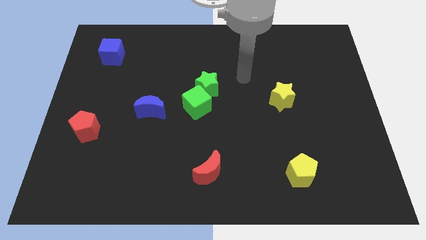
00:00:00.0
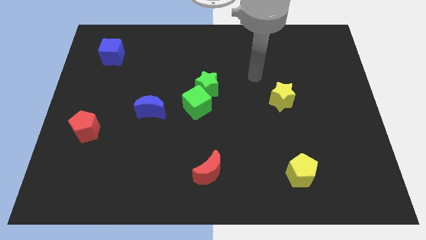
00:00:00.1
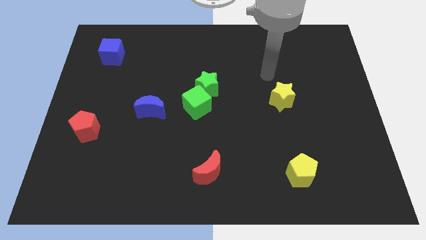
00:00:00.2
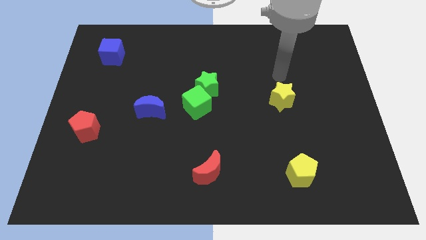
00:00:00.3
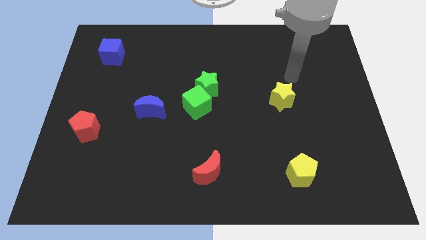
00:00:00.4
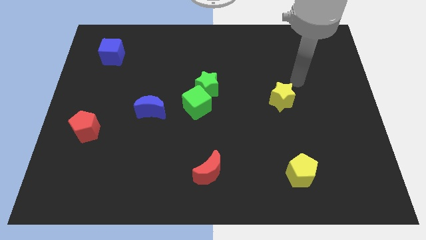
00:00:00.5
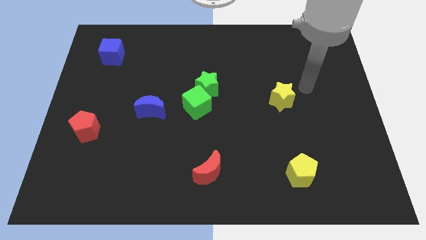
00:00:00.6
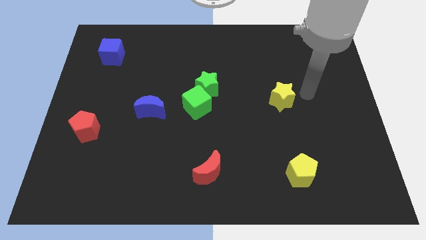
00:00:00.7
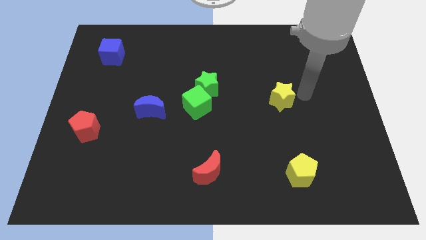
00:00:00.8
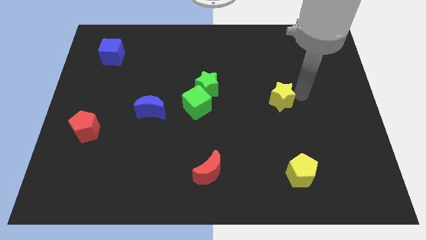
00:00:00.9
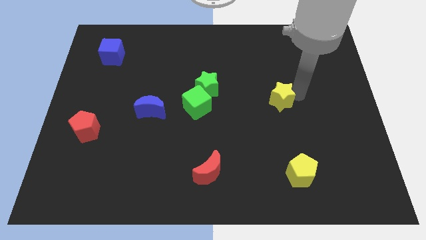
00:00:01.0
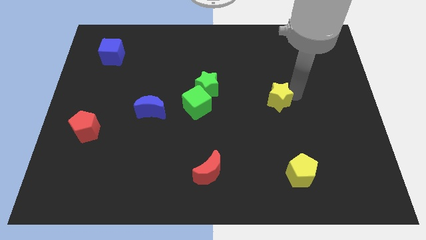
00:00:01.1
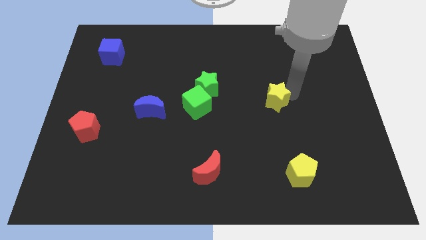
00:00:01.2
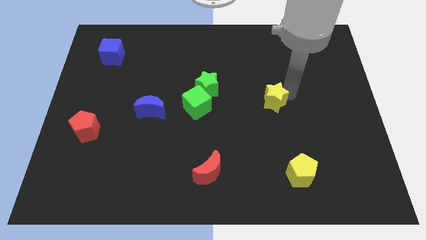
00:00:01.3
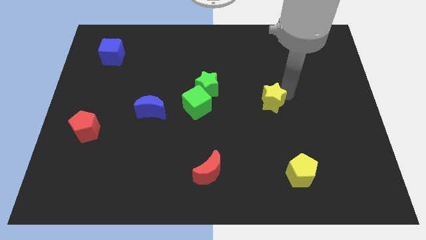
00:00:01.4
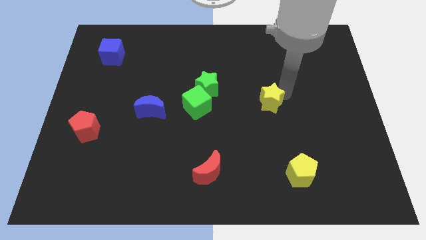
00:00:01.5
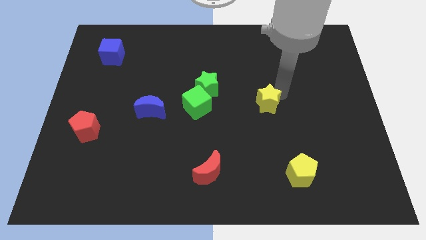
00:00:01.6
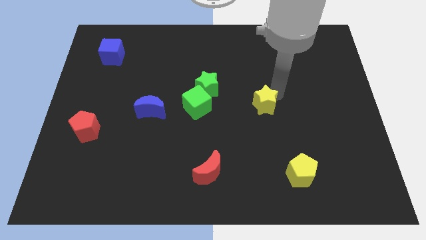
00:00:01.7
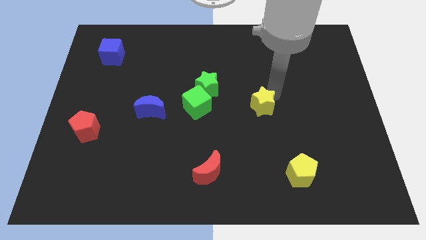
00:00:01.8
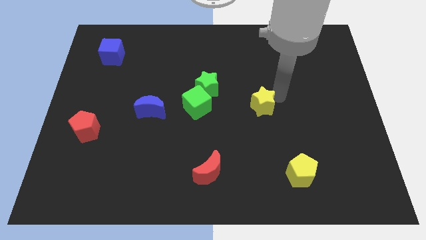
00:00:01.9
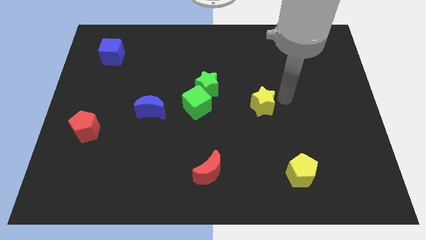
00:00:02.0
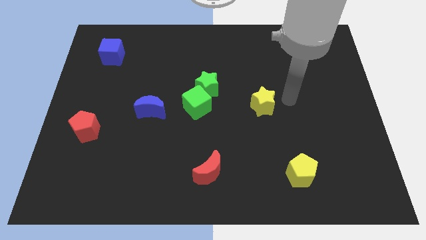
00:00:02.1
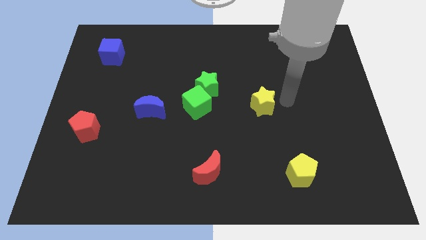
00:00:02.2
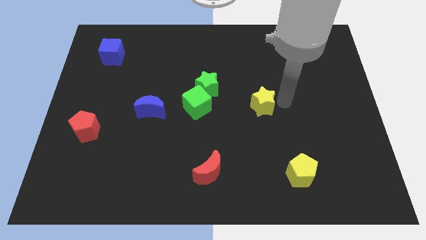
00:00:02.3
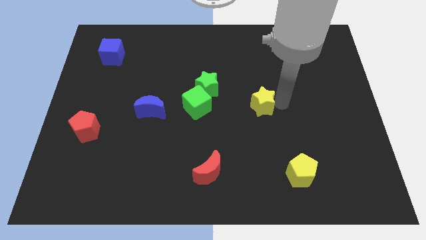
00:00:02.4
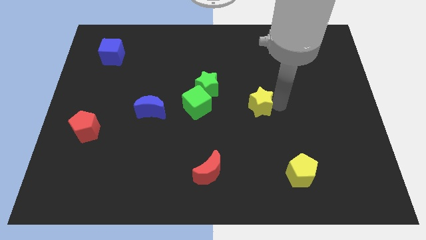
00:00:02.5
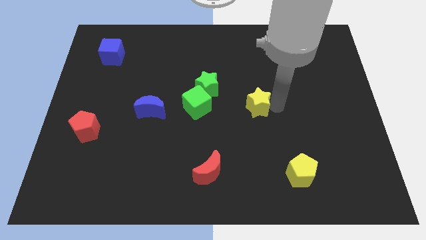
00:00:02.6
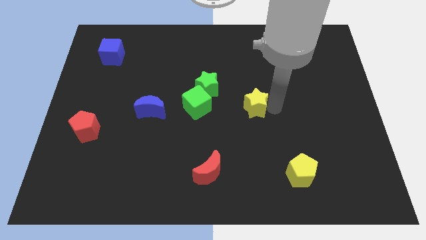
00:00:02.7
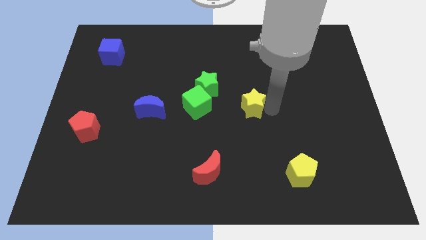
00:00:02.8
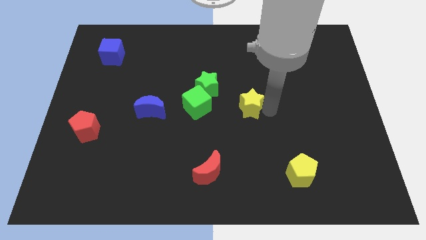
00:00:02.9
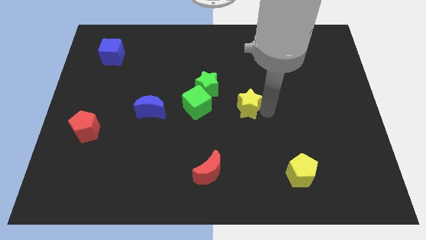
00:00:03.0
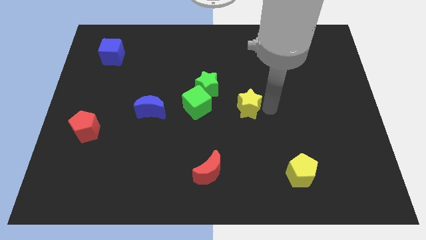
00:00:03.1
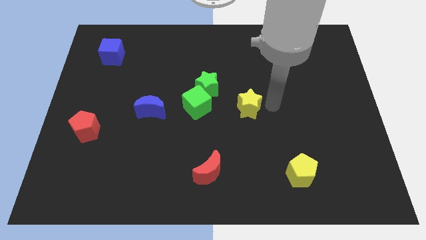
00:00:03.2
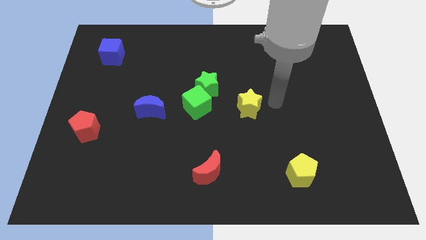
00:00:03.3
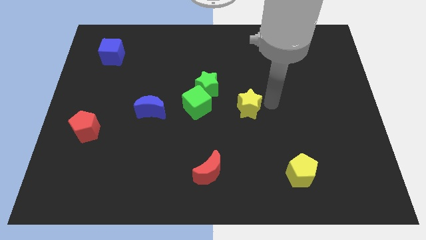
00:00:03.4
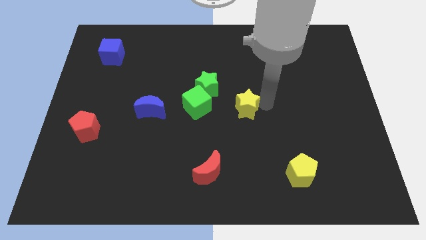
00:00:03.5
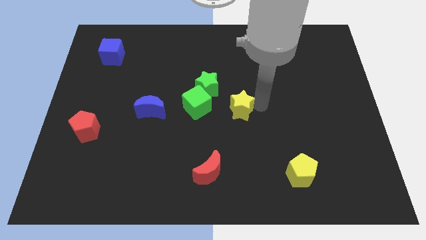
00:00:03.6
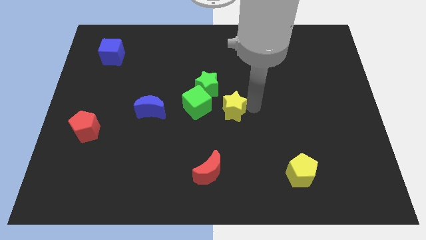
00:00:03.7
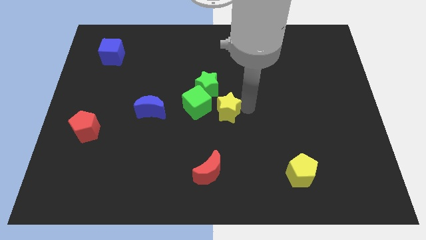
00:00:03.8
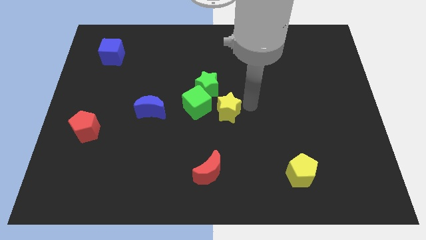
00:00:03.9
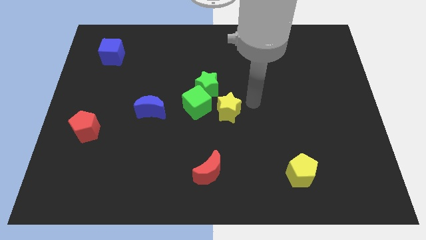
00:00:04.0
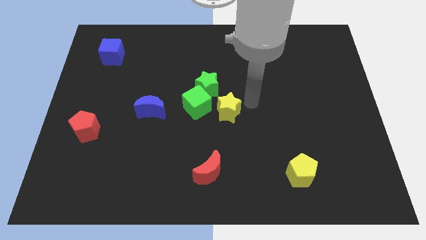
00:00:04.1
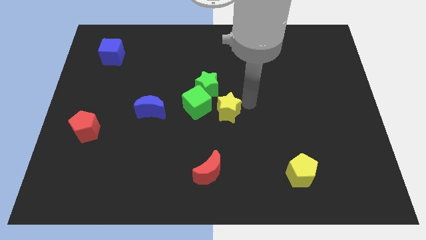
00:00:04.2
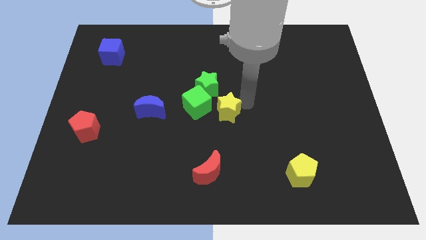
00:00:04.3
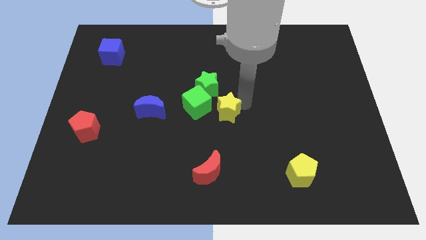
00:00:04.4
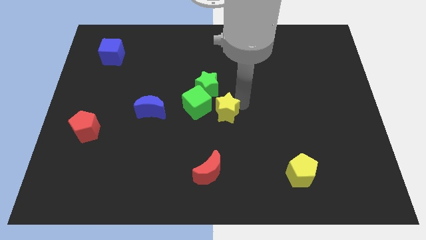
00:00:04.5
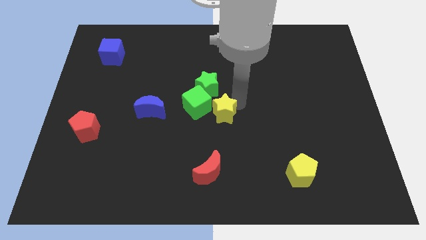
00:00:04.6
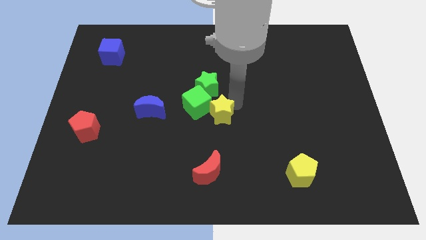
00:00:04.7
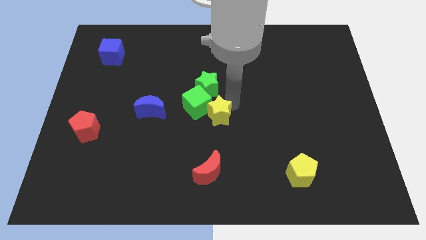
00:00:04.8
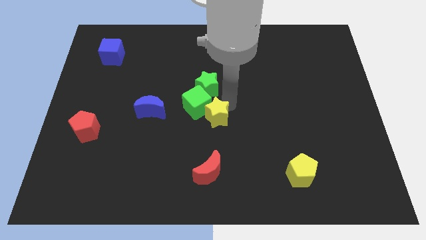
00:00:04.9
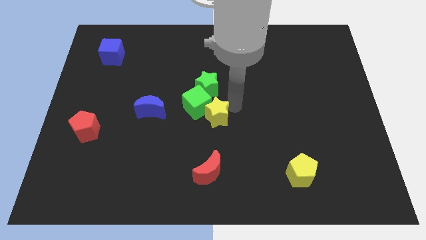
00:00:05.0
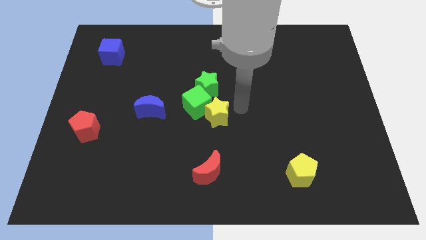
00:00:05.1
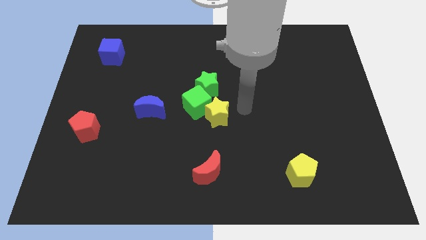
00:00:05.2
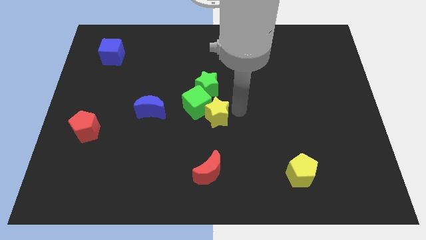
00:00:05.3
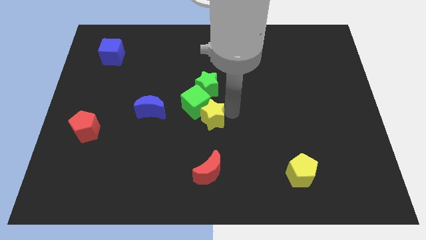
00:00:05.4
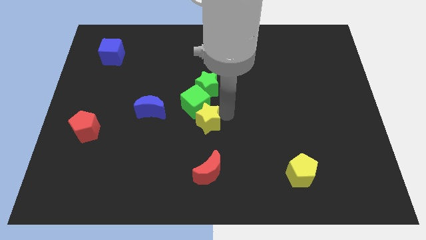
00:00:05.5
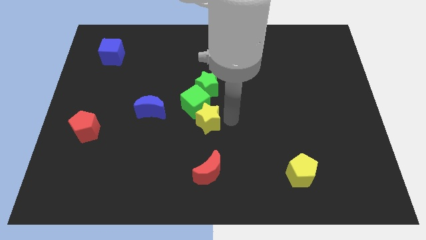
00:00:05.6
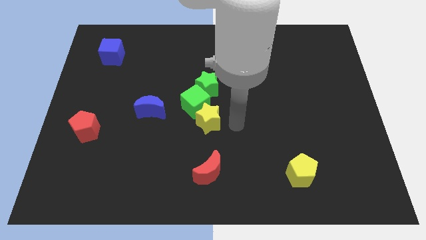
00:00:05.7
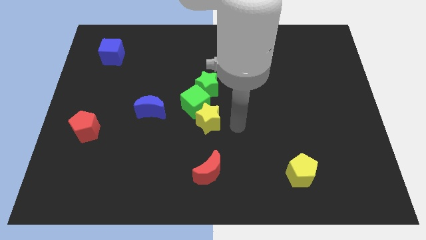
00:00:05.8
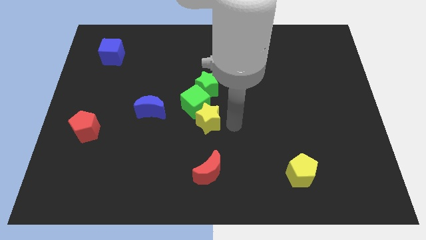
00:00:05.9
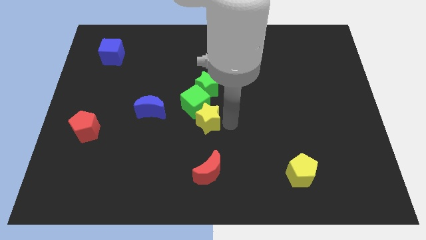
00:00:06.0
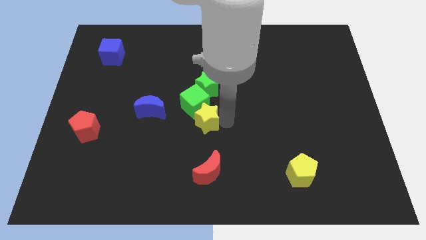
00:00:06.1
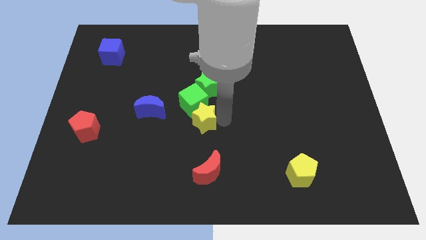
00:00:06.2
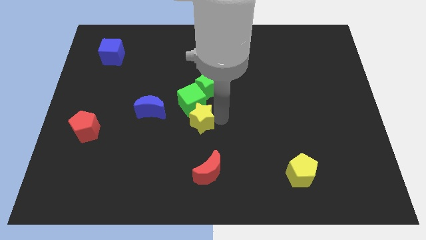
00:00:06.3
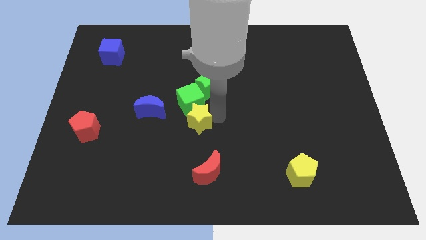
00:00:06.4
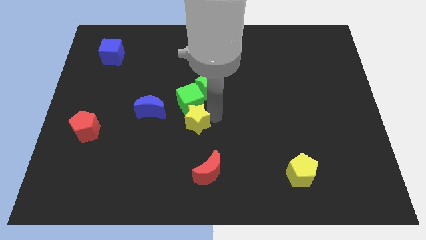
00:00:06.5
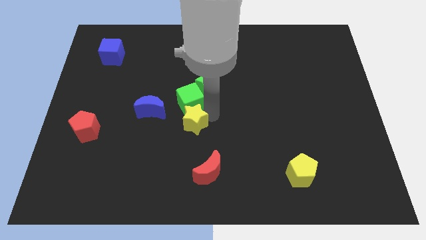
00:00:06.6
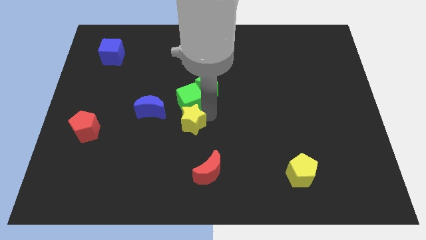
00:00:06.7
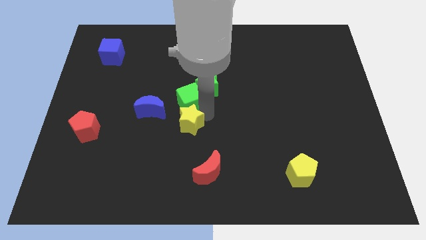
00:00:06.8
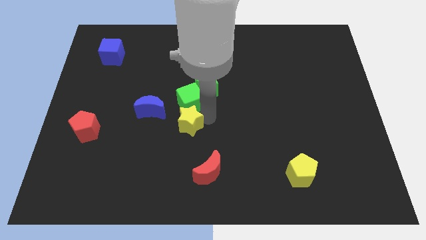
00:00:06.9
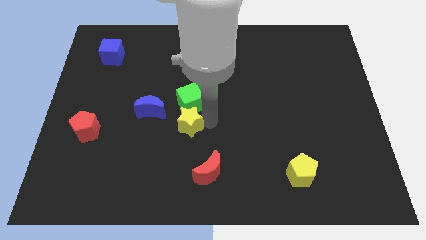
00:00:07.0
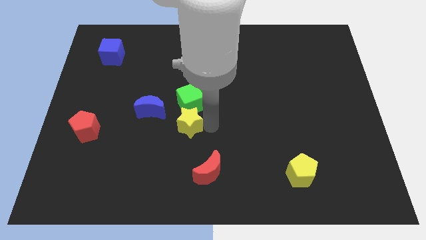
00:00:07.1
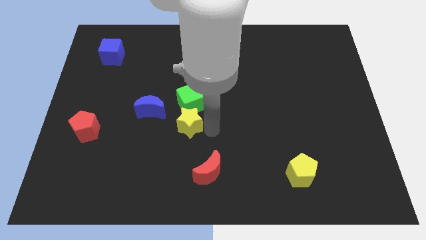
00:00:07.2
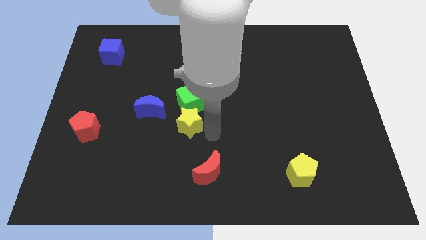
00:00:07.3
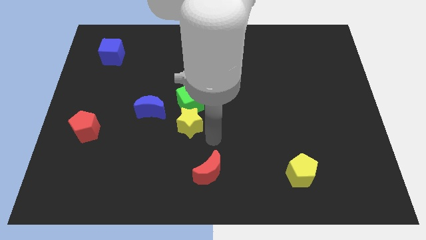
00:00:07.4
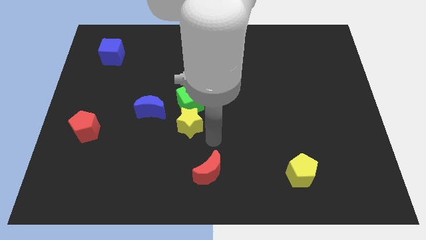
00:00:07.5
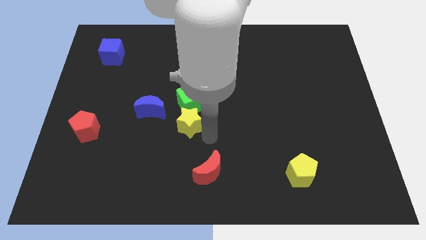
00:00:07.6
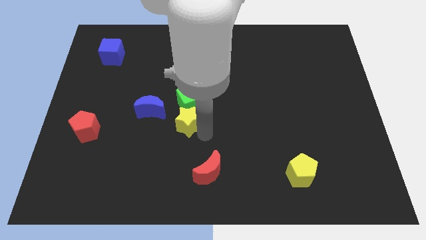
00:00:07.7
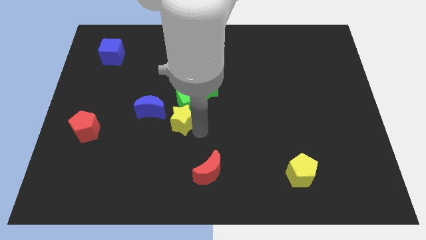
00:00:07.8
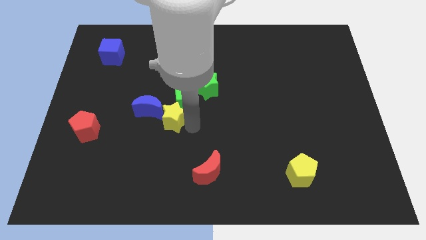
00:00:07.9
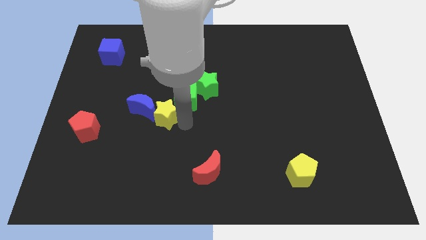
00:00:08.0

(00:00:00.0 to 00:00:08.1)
move the yellow star towards the blue moon
